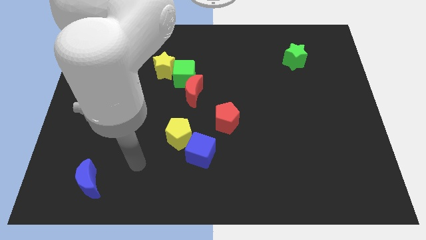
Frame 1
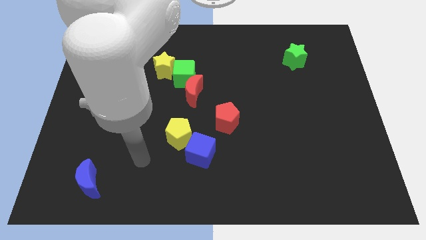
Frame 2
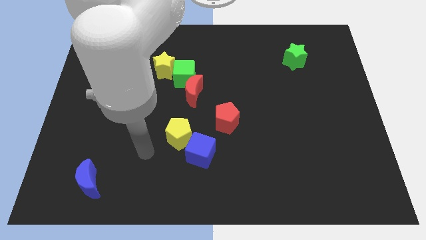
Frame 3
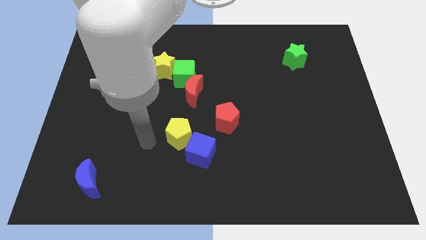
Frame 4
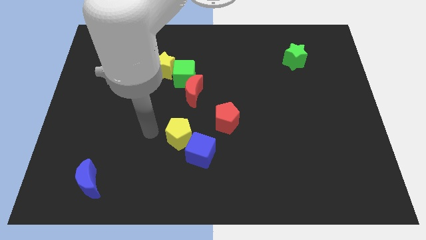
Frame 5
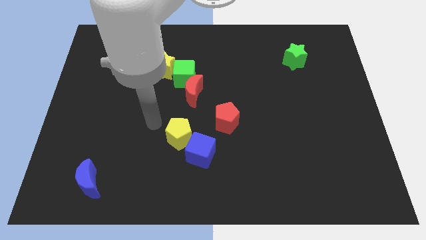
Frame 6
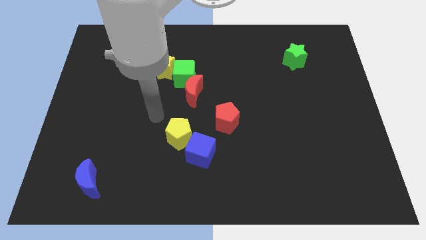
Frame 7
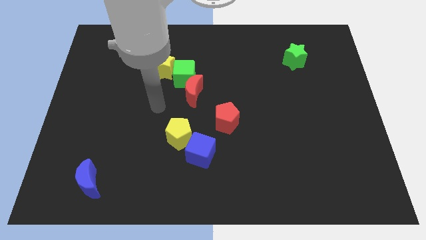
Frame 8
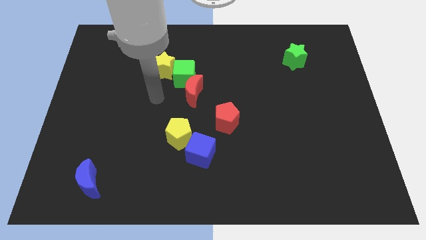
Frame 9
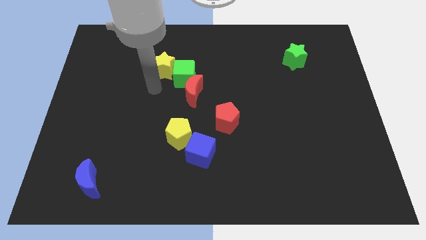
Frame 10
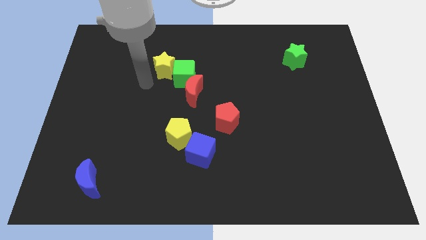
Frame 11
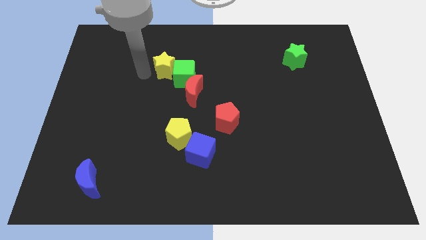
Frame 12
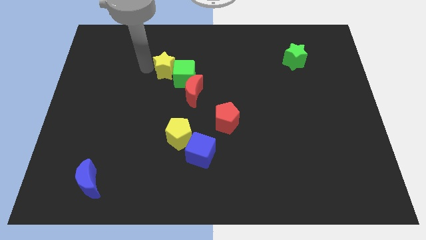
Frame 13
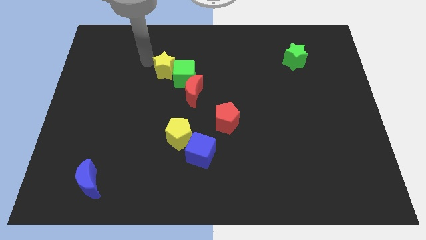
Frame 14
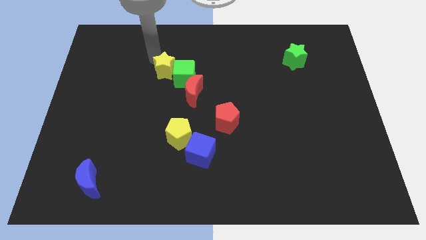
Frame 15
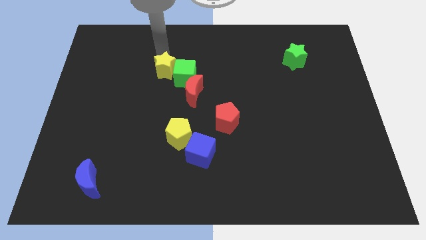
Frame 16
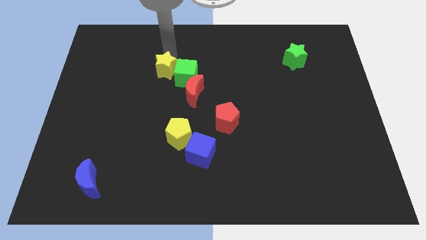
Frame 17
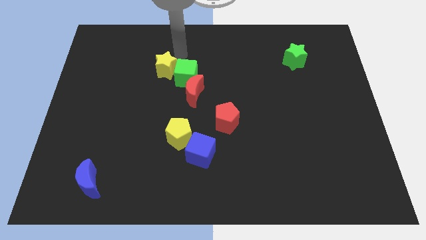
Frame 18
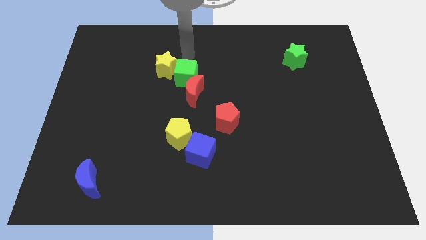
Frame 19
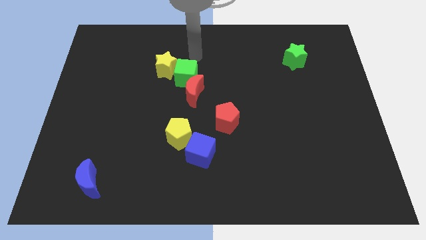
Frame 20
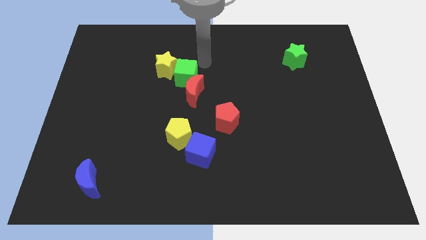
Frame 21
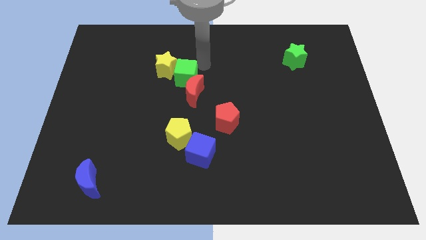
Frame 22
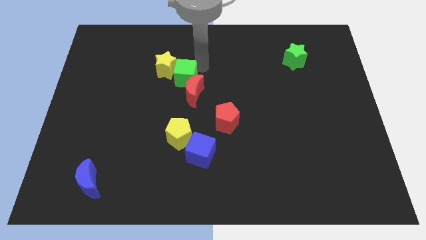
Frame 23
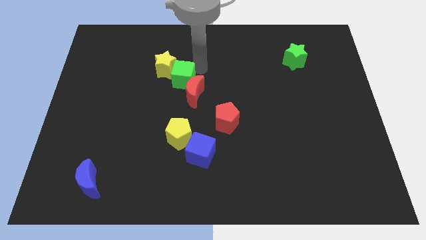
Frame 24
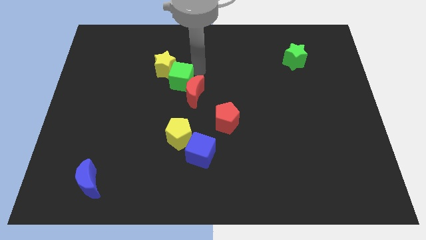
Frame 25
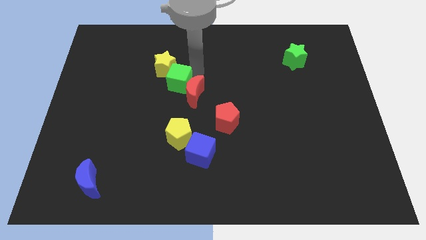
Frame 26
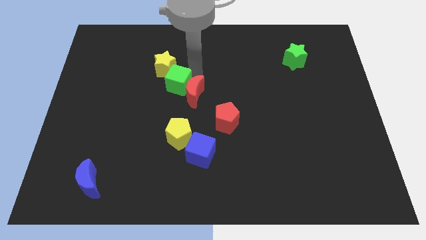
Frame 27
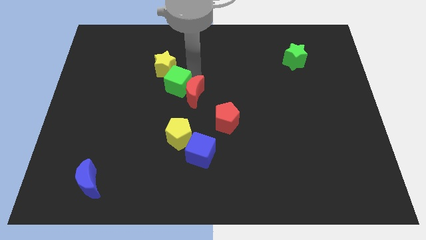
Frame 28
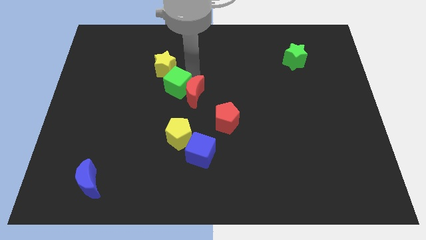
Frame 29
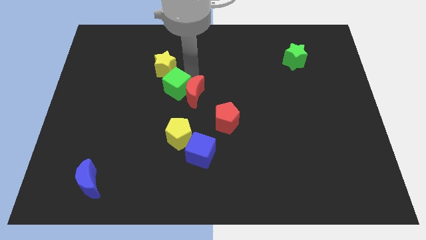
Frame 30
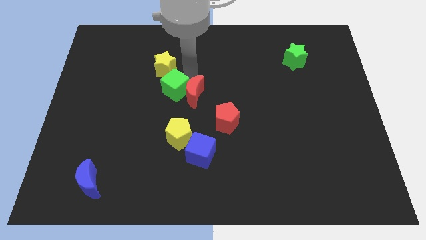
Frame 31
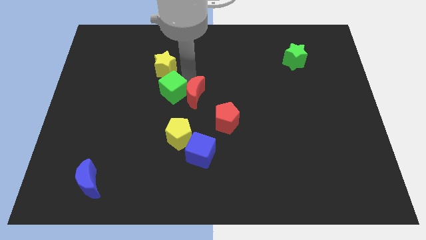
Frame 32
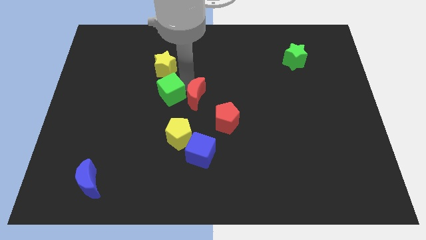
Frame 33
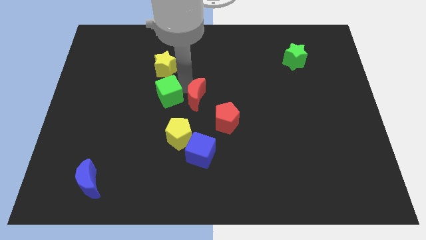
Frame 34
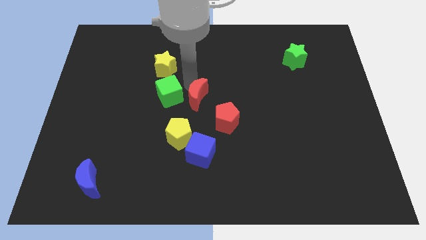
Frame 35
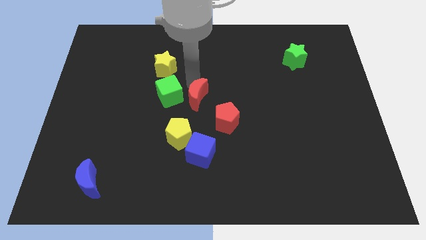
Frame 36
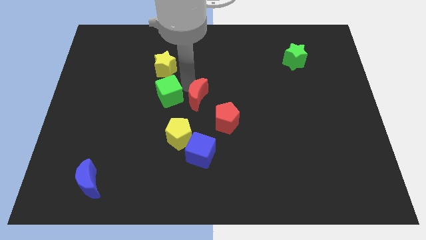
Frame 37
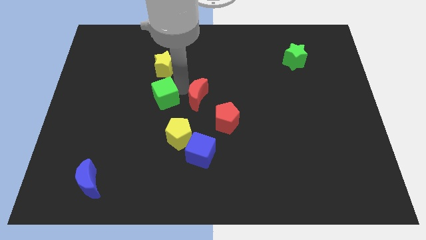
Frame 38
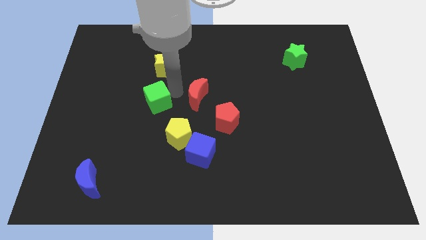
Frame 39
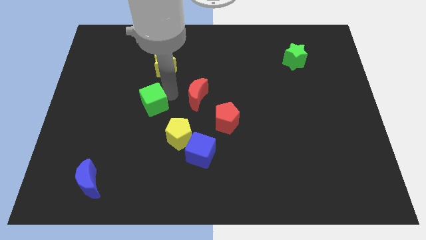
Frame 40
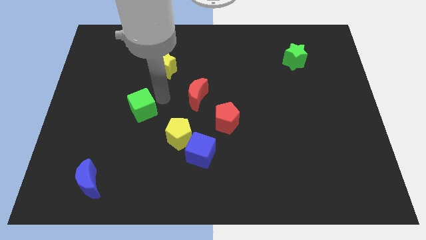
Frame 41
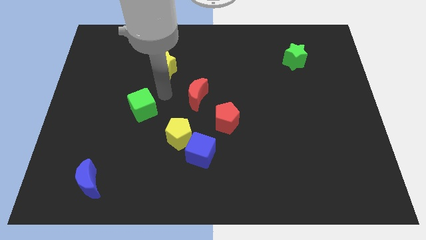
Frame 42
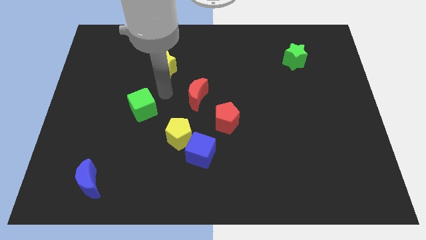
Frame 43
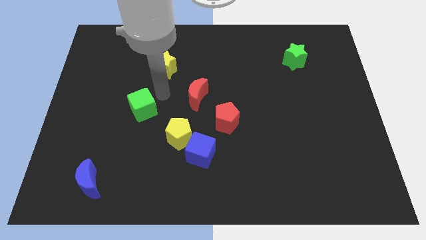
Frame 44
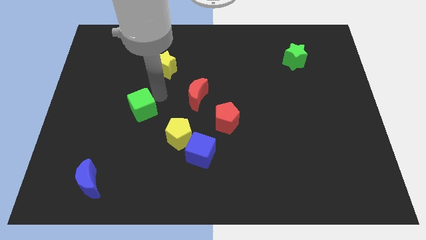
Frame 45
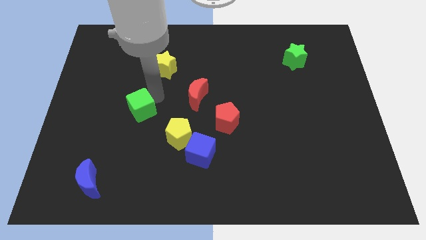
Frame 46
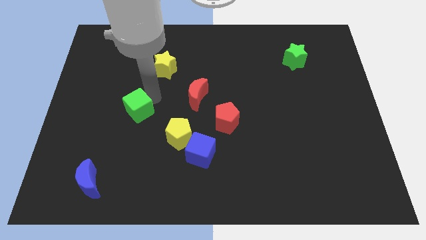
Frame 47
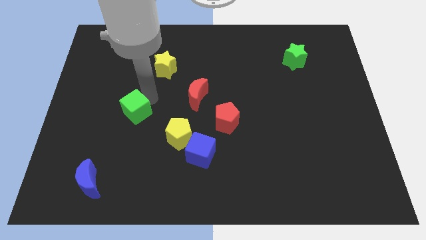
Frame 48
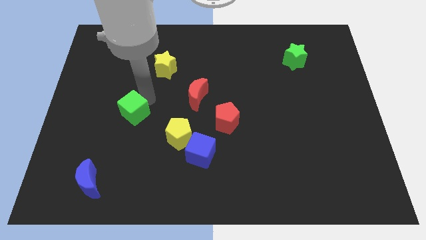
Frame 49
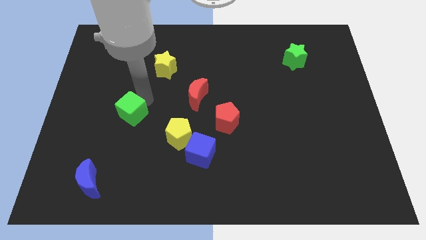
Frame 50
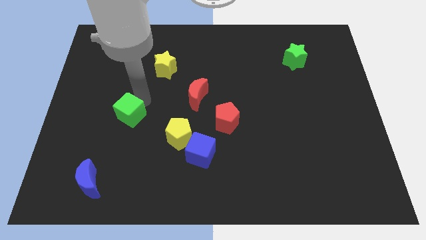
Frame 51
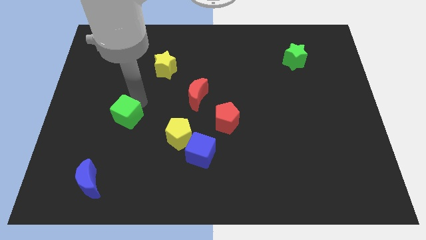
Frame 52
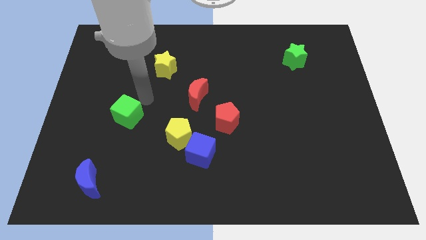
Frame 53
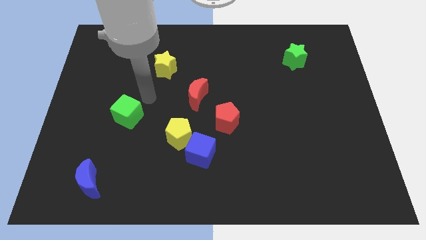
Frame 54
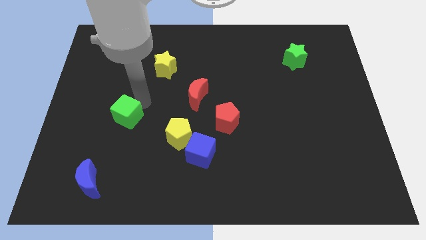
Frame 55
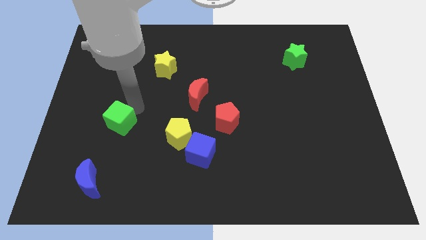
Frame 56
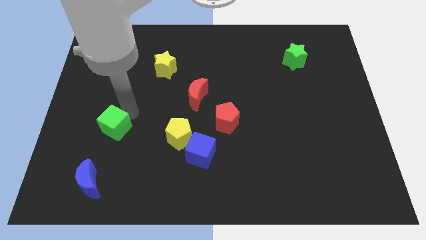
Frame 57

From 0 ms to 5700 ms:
slide the green cube above the blue moon

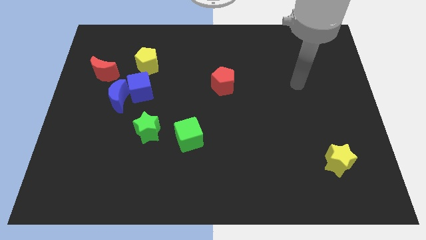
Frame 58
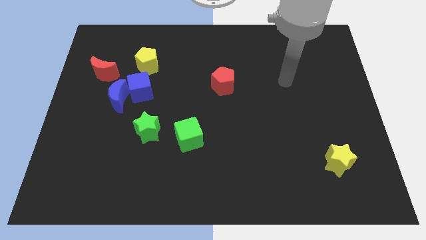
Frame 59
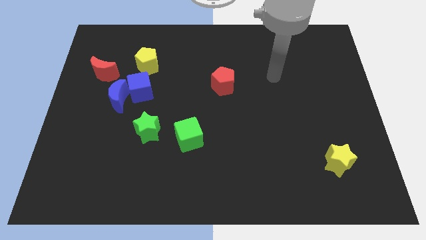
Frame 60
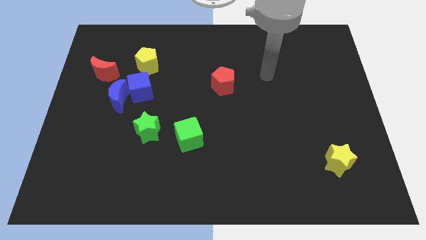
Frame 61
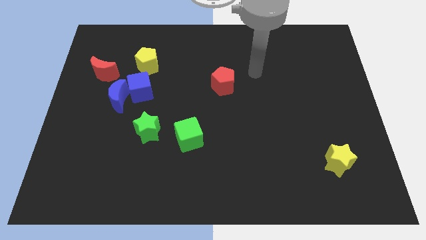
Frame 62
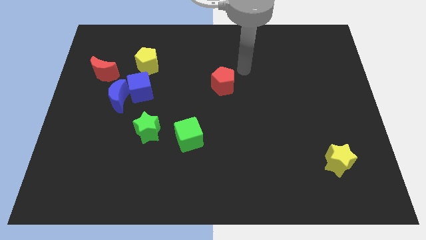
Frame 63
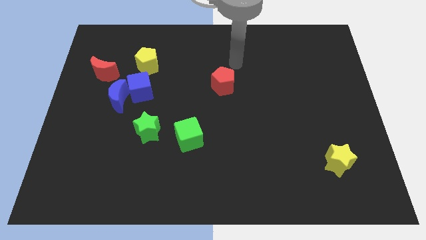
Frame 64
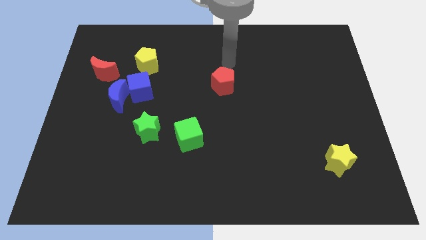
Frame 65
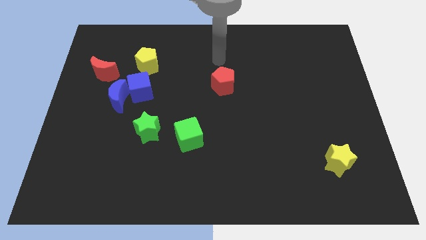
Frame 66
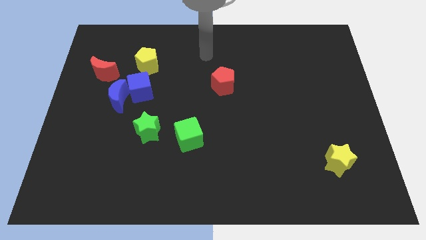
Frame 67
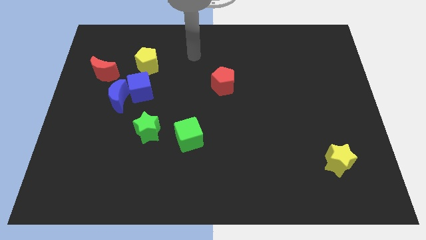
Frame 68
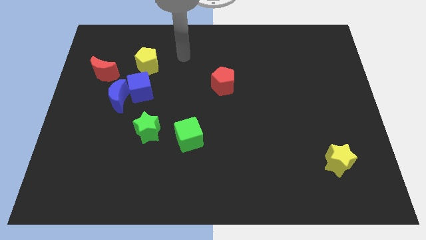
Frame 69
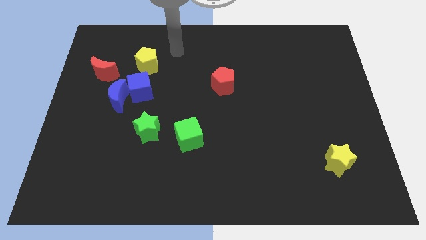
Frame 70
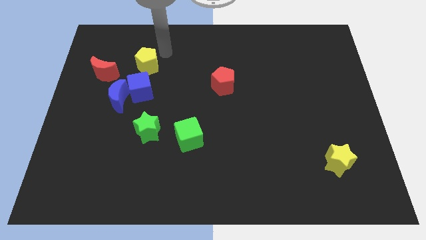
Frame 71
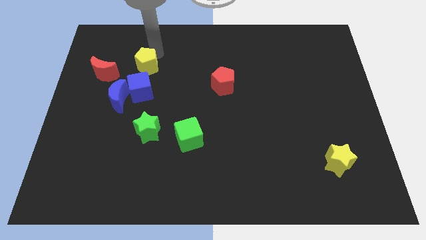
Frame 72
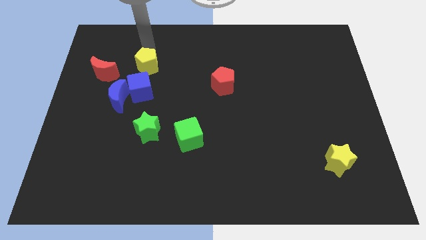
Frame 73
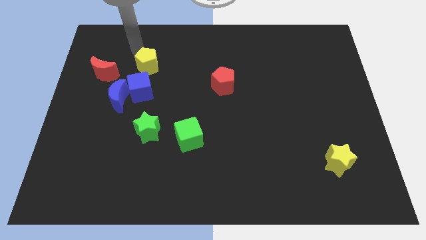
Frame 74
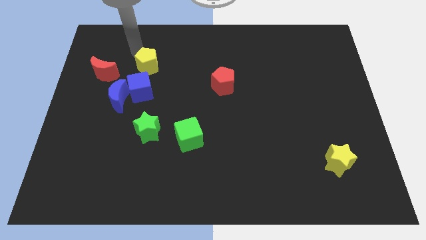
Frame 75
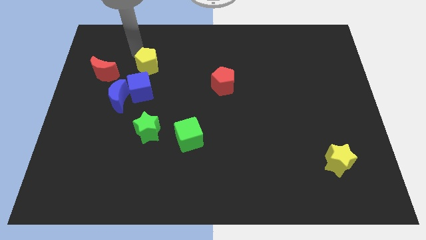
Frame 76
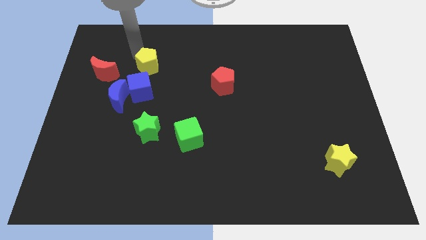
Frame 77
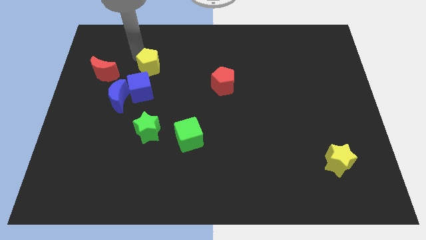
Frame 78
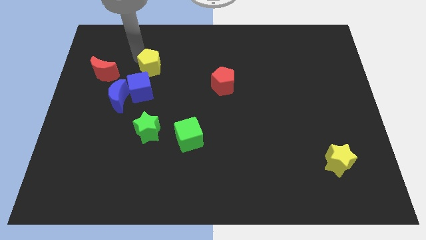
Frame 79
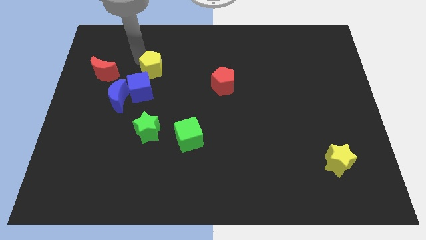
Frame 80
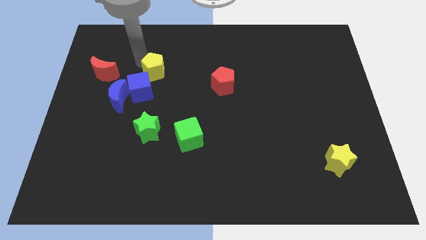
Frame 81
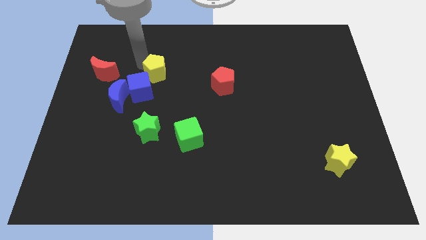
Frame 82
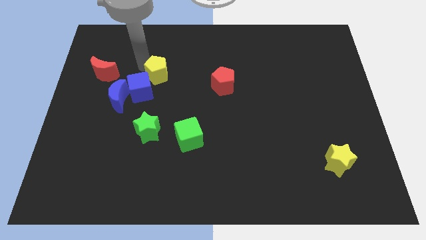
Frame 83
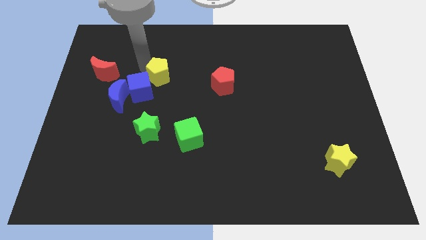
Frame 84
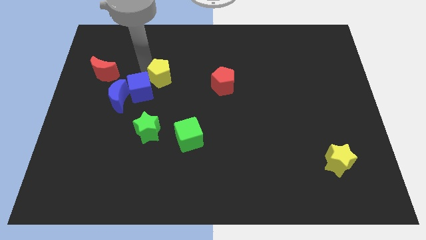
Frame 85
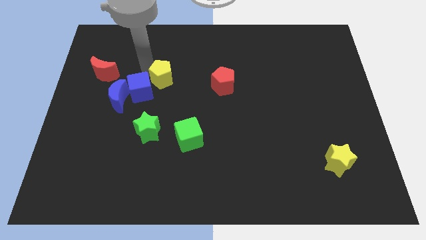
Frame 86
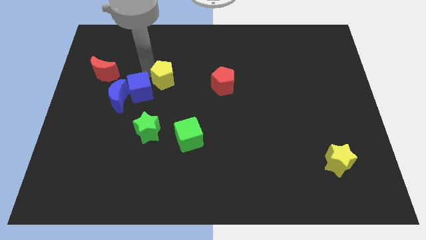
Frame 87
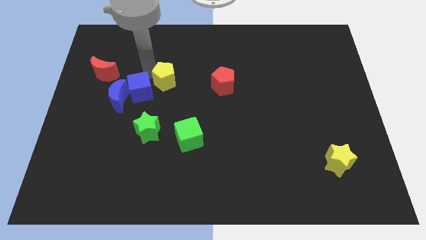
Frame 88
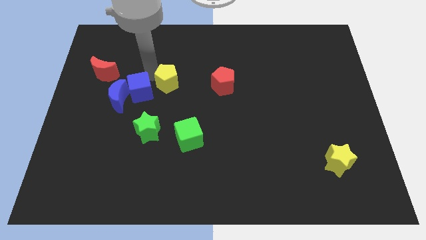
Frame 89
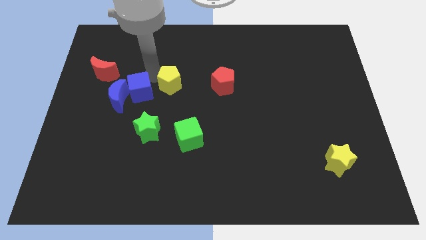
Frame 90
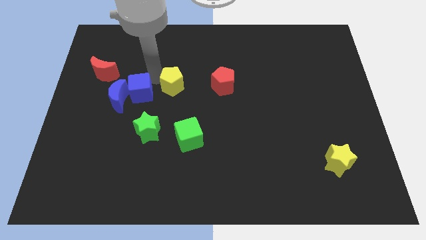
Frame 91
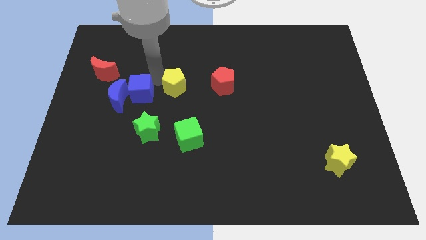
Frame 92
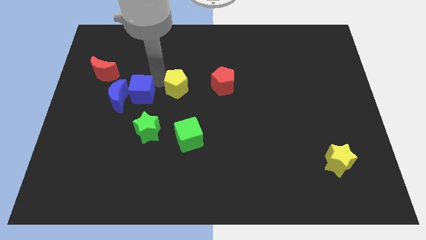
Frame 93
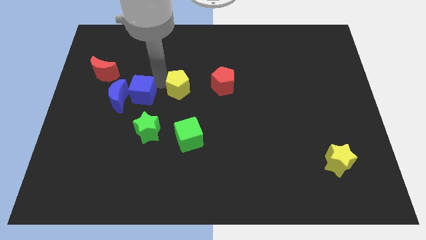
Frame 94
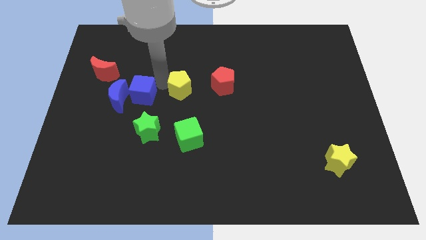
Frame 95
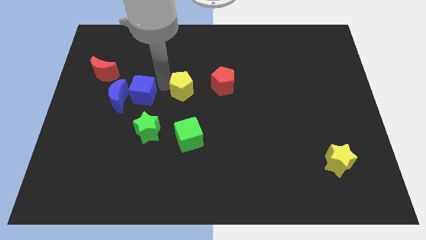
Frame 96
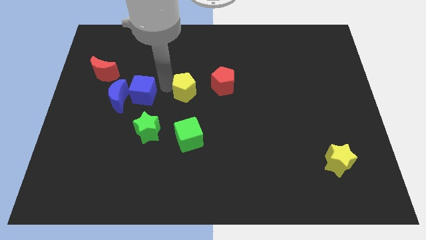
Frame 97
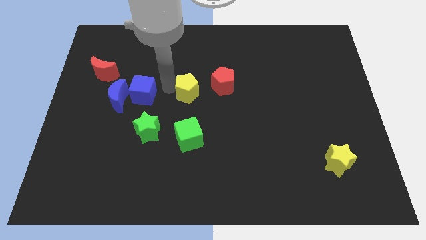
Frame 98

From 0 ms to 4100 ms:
put the yellow pentagon diagonally down and to the left of the red pentagon
